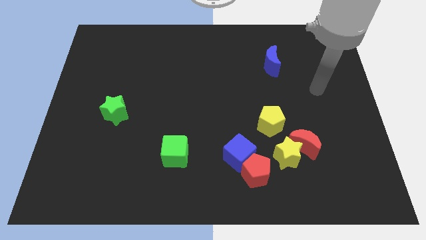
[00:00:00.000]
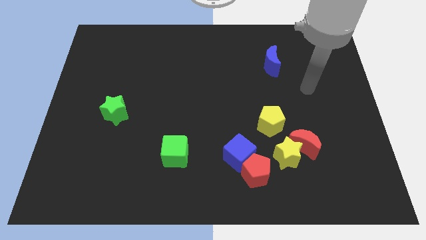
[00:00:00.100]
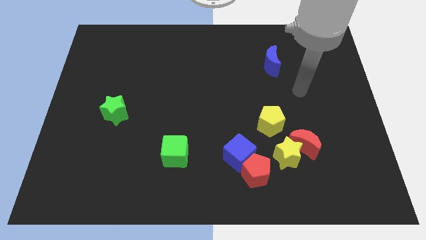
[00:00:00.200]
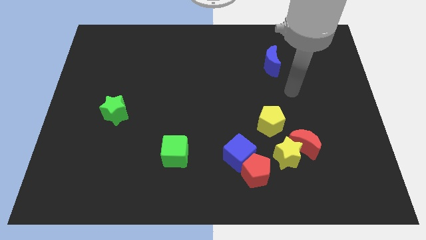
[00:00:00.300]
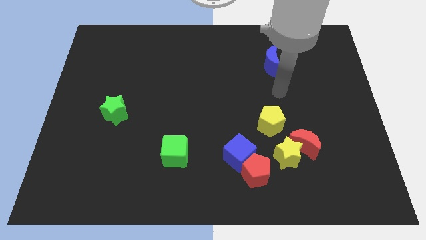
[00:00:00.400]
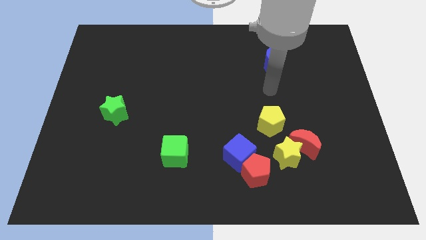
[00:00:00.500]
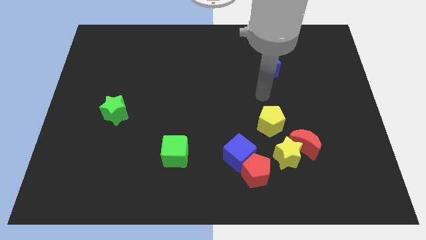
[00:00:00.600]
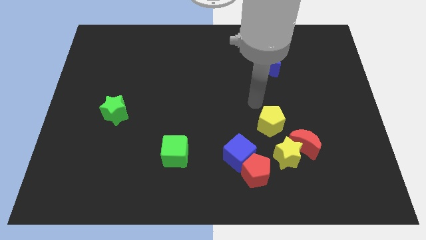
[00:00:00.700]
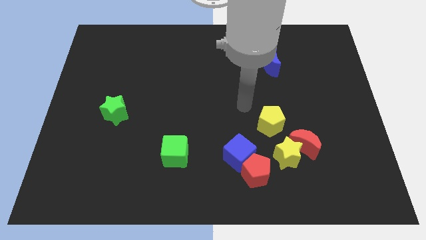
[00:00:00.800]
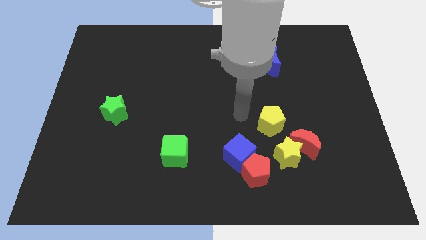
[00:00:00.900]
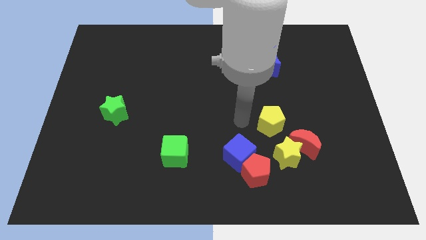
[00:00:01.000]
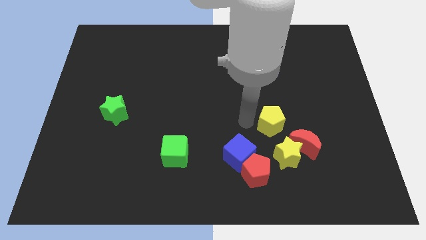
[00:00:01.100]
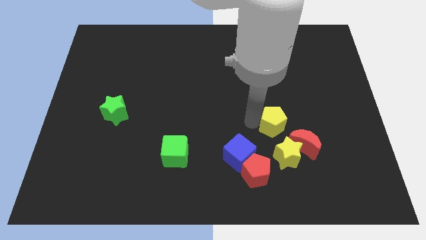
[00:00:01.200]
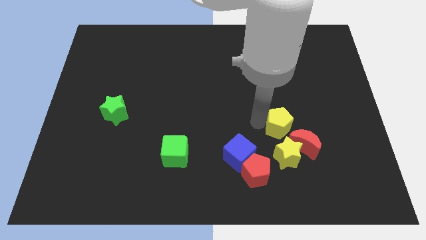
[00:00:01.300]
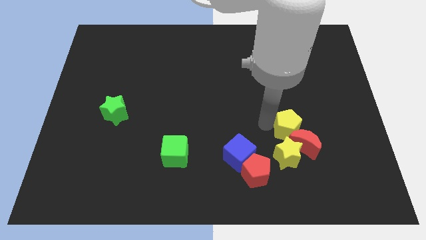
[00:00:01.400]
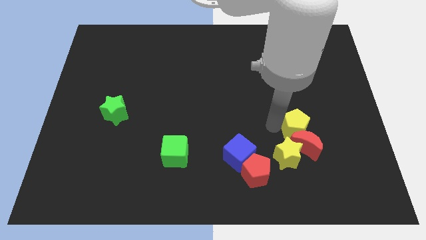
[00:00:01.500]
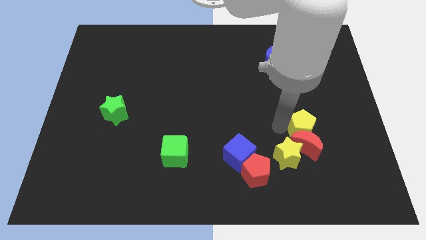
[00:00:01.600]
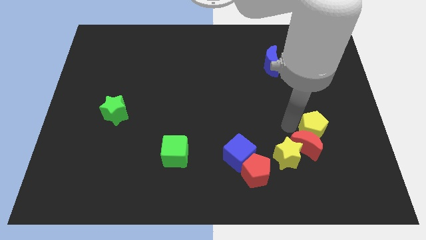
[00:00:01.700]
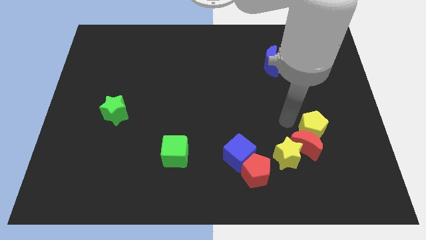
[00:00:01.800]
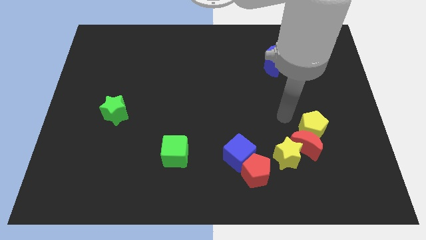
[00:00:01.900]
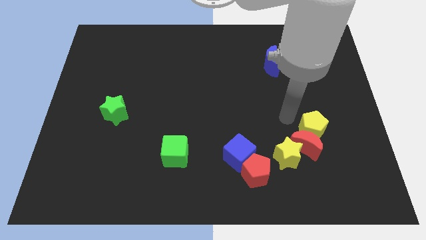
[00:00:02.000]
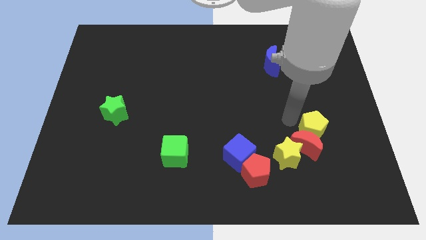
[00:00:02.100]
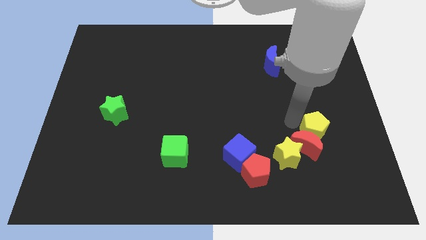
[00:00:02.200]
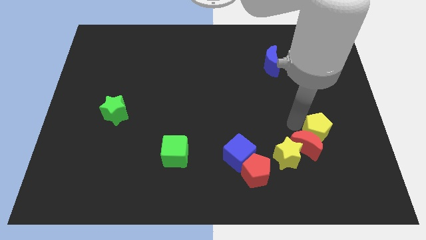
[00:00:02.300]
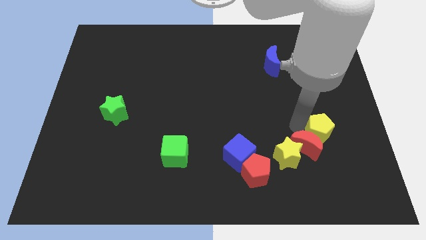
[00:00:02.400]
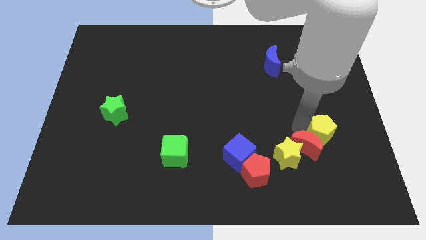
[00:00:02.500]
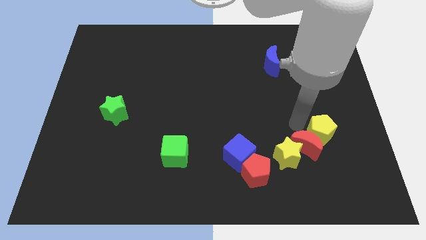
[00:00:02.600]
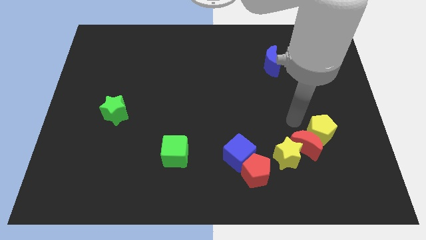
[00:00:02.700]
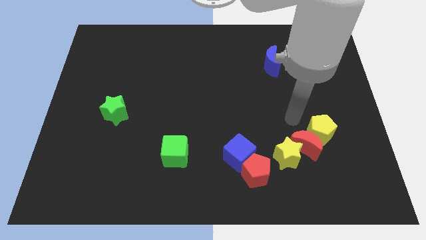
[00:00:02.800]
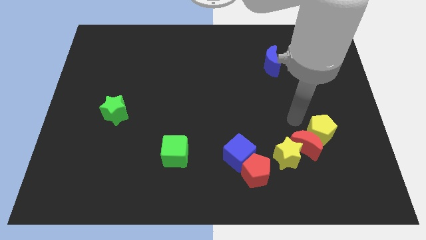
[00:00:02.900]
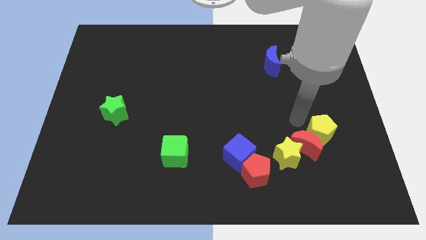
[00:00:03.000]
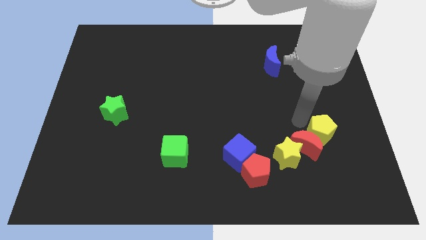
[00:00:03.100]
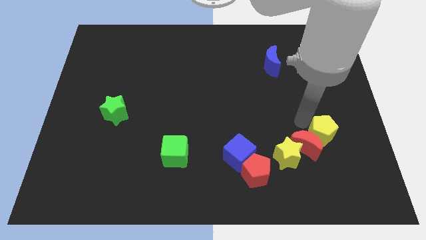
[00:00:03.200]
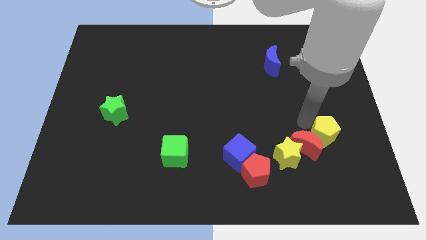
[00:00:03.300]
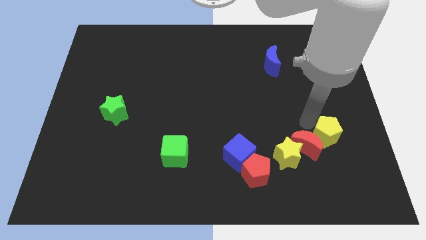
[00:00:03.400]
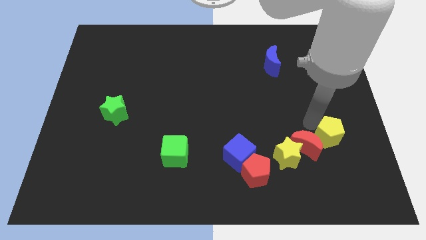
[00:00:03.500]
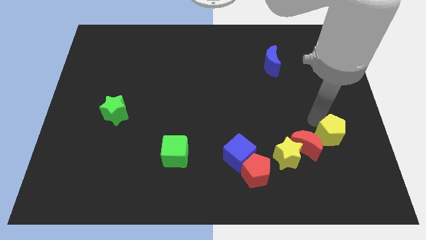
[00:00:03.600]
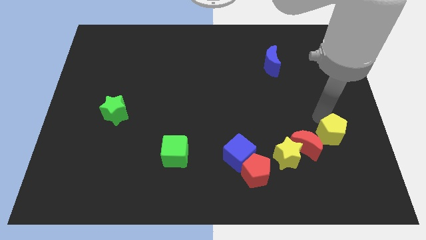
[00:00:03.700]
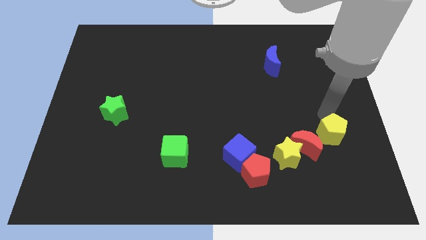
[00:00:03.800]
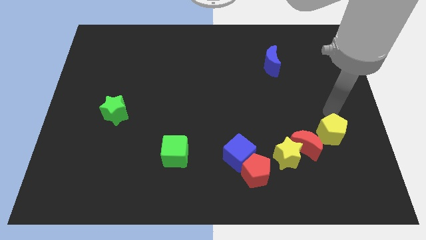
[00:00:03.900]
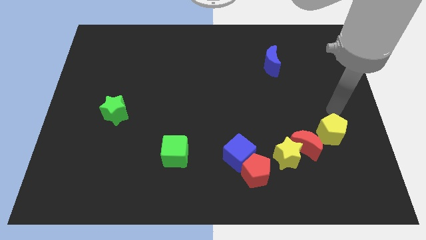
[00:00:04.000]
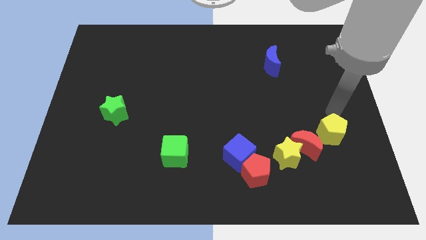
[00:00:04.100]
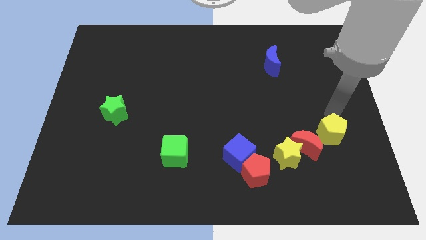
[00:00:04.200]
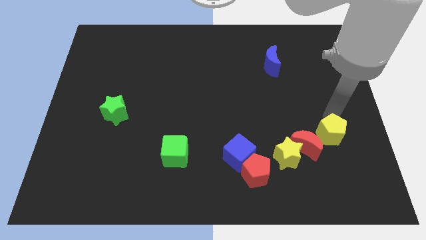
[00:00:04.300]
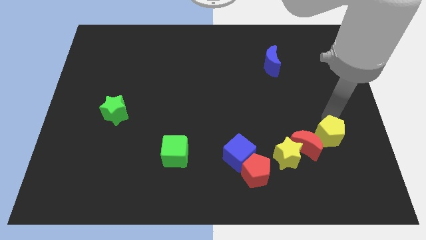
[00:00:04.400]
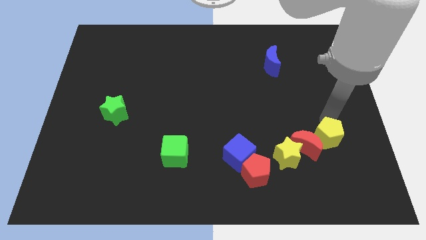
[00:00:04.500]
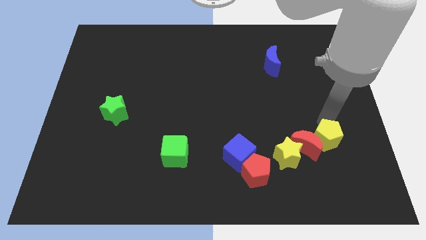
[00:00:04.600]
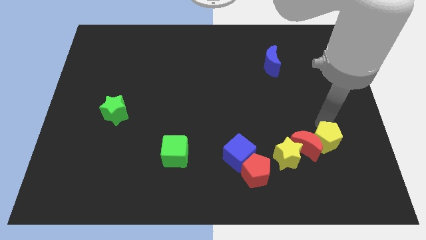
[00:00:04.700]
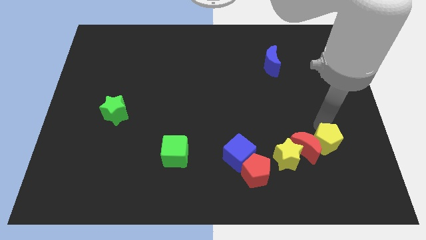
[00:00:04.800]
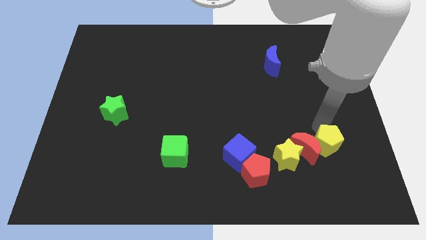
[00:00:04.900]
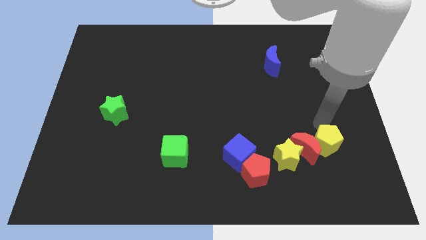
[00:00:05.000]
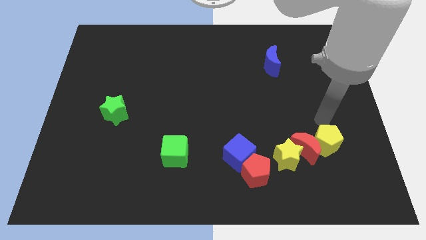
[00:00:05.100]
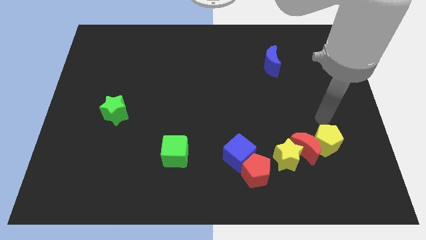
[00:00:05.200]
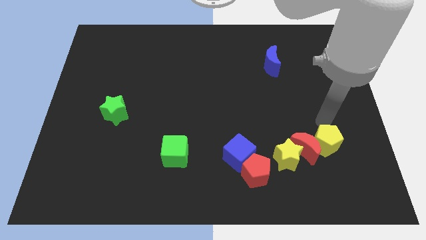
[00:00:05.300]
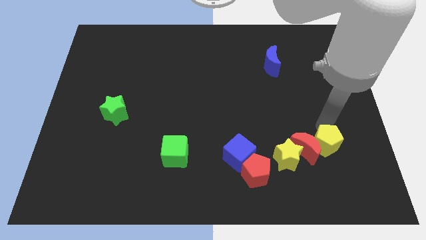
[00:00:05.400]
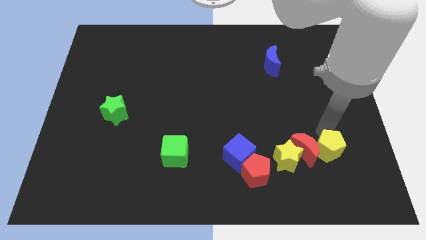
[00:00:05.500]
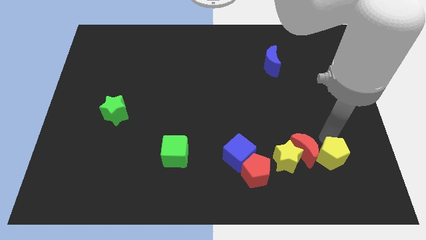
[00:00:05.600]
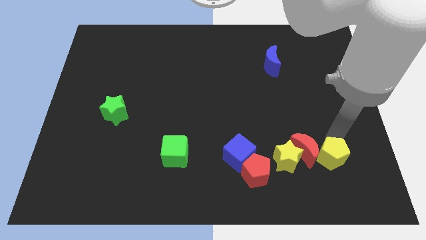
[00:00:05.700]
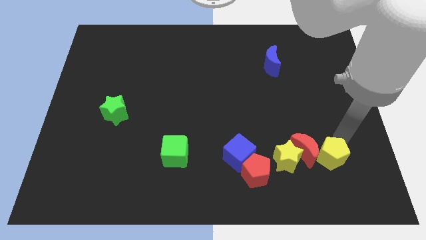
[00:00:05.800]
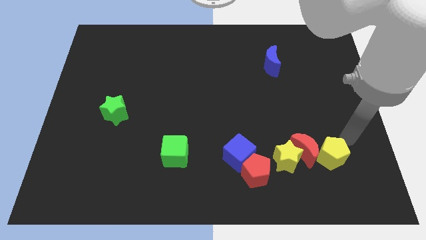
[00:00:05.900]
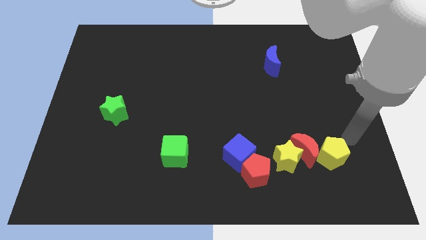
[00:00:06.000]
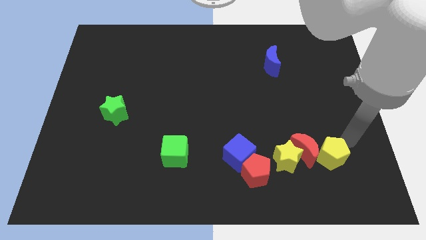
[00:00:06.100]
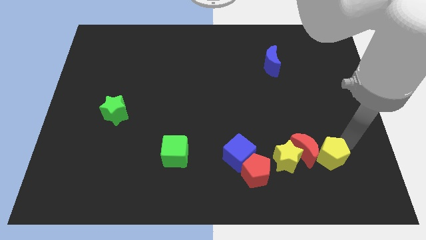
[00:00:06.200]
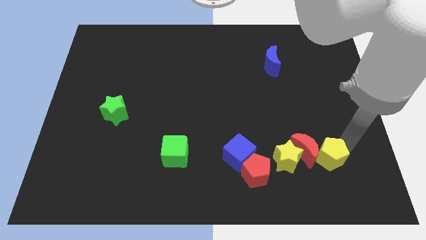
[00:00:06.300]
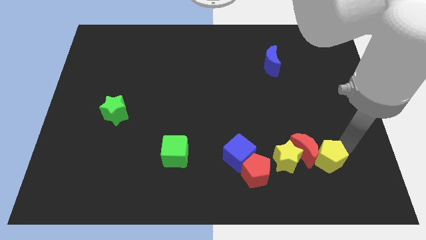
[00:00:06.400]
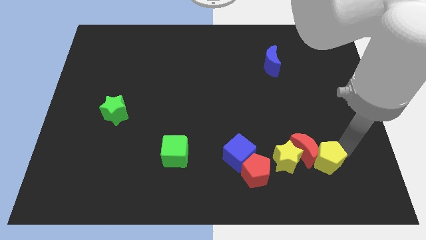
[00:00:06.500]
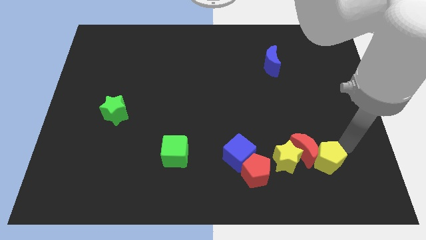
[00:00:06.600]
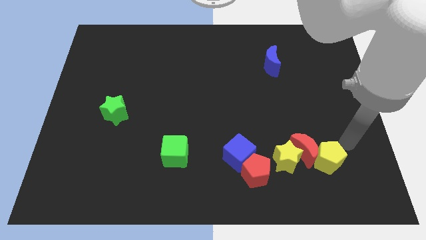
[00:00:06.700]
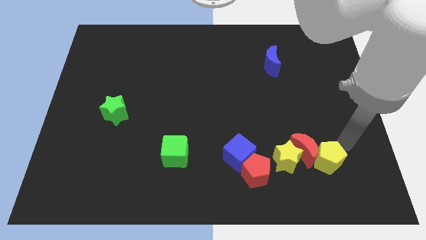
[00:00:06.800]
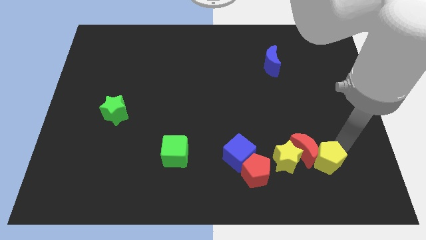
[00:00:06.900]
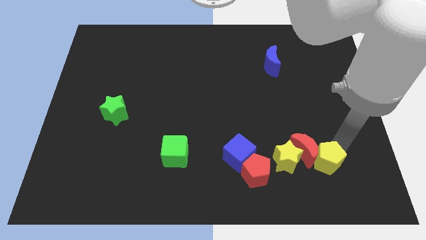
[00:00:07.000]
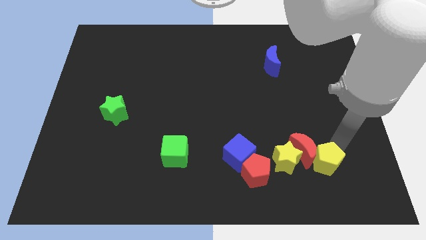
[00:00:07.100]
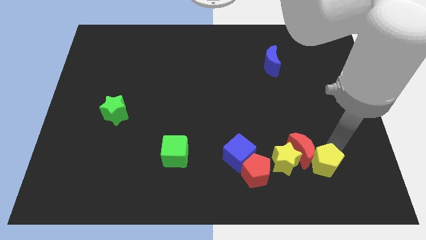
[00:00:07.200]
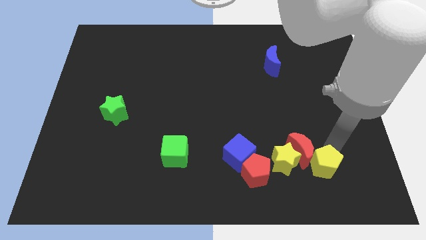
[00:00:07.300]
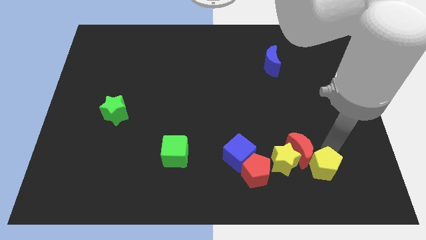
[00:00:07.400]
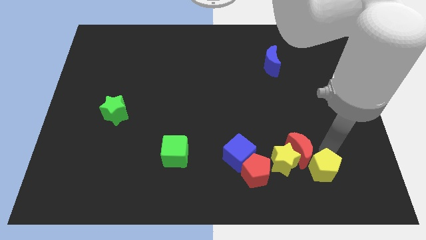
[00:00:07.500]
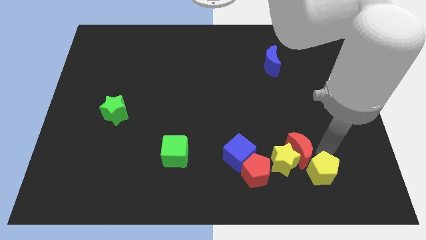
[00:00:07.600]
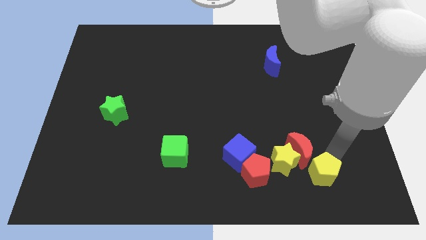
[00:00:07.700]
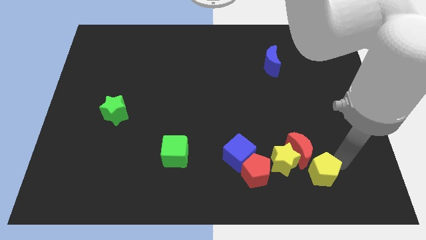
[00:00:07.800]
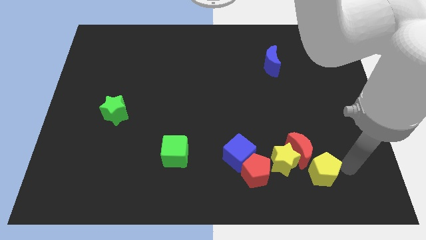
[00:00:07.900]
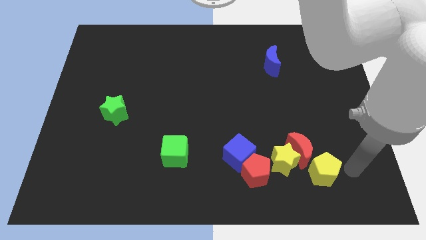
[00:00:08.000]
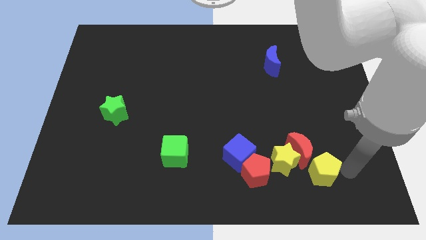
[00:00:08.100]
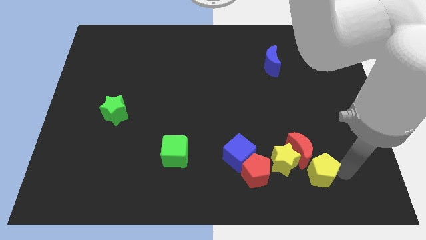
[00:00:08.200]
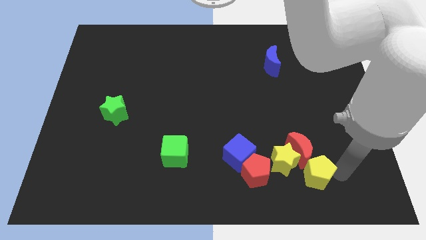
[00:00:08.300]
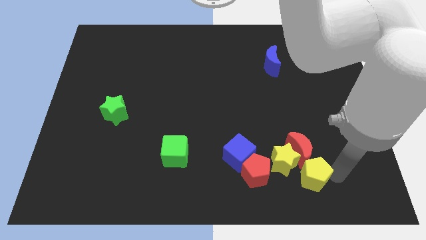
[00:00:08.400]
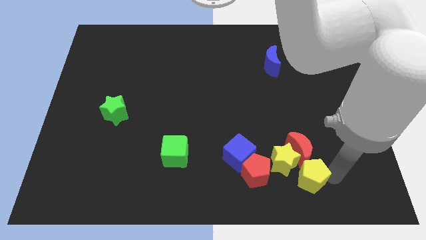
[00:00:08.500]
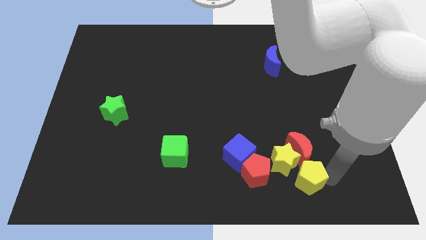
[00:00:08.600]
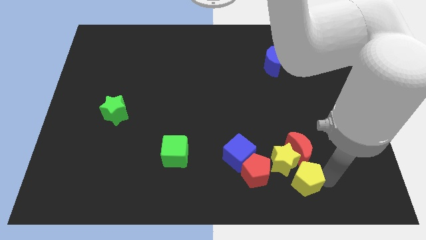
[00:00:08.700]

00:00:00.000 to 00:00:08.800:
push the yellow pentagon diagonally down and to the left of the red moon
